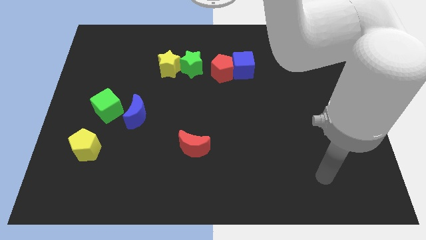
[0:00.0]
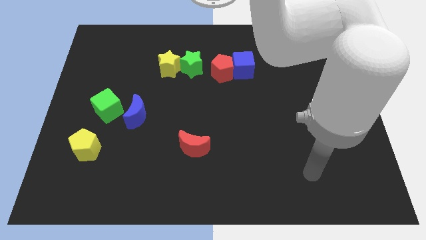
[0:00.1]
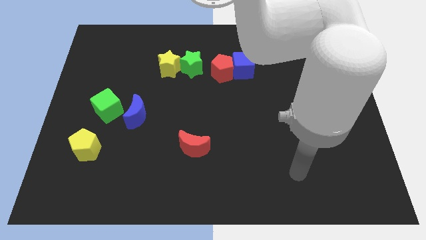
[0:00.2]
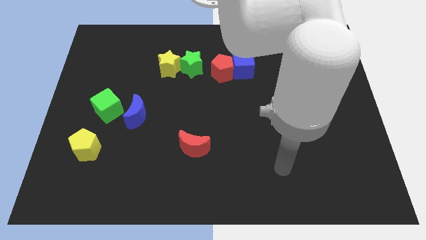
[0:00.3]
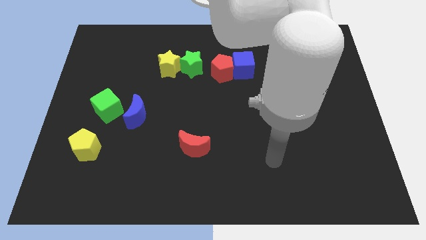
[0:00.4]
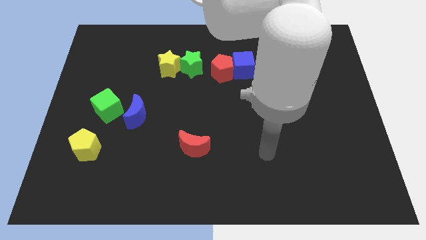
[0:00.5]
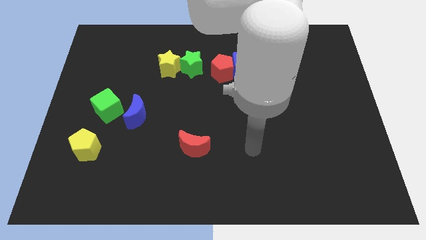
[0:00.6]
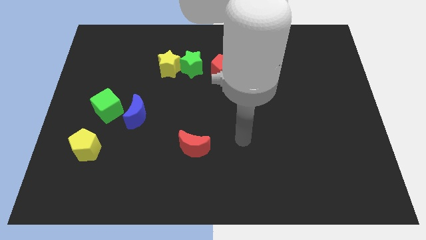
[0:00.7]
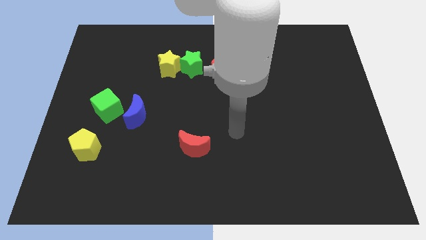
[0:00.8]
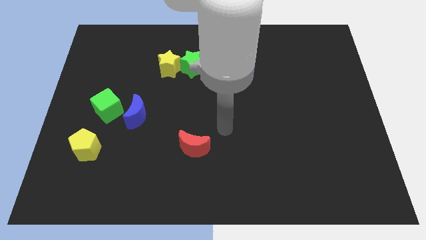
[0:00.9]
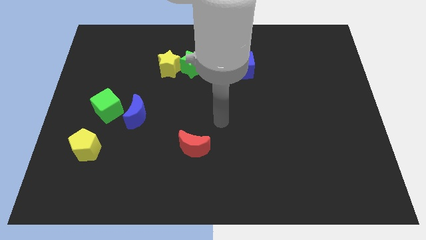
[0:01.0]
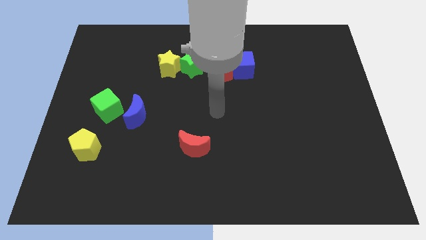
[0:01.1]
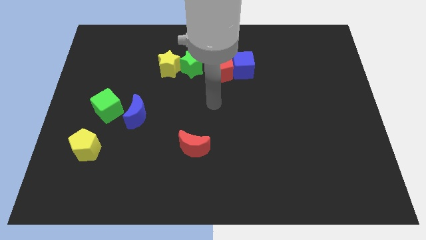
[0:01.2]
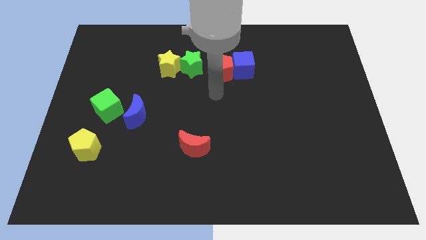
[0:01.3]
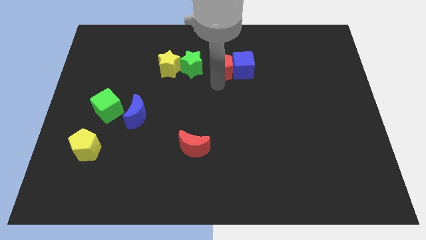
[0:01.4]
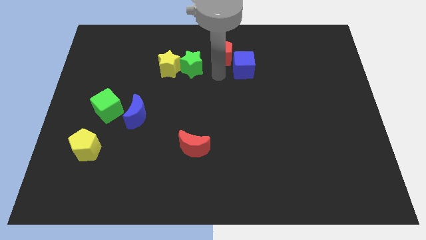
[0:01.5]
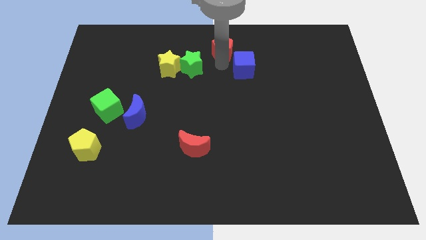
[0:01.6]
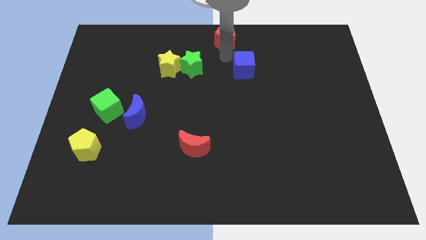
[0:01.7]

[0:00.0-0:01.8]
move the blue cube away from the red pentagon

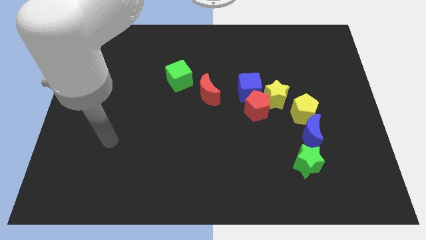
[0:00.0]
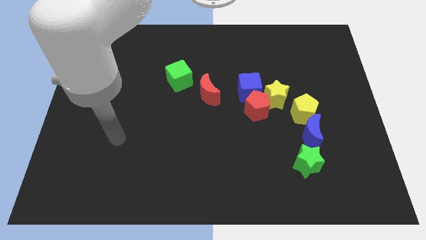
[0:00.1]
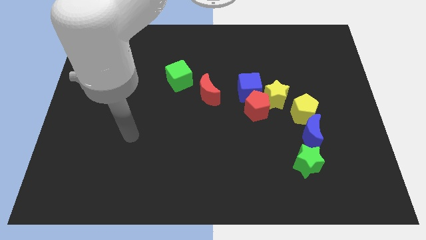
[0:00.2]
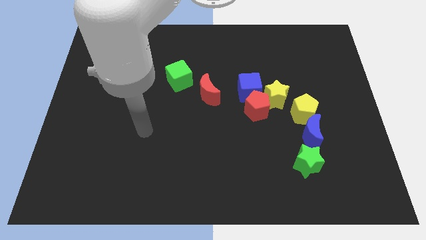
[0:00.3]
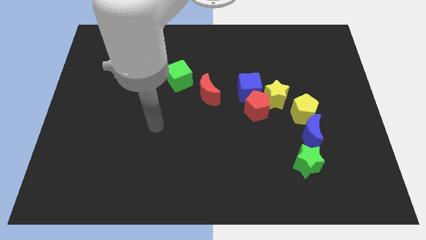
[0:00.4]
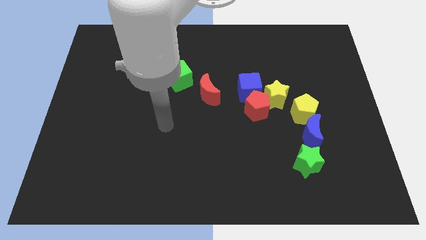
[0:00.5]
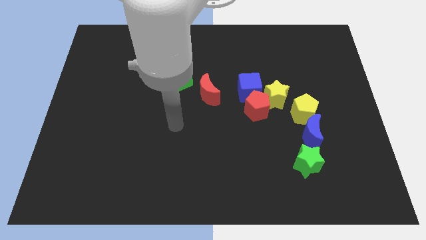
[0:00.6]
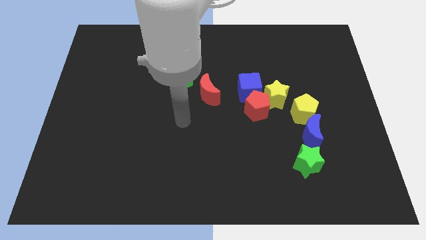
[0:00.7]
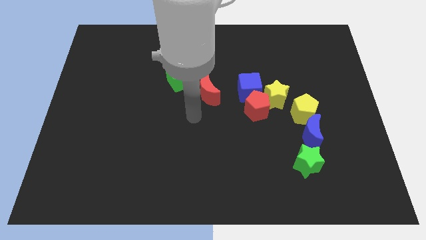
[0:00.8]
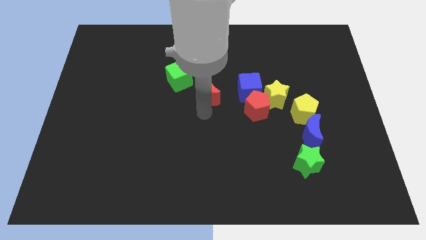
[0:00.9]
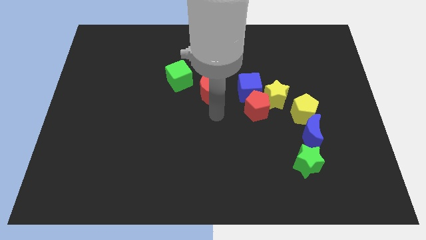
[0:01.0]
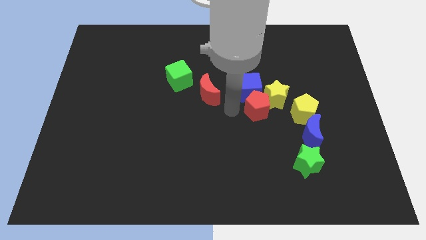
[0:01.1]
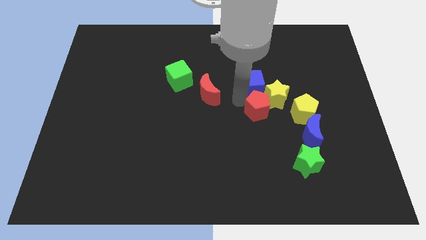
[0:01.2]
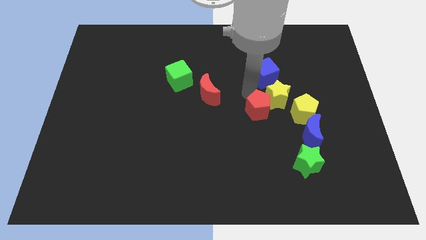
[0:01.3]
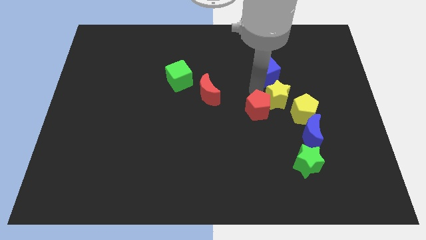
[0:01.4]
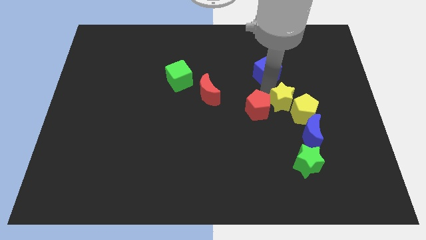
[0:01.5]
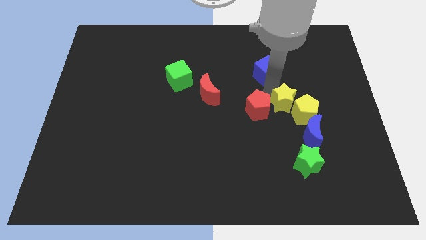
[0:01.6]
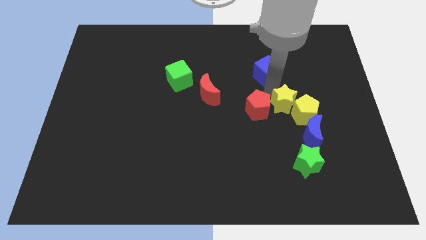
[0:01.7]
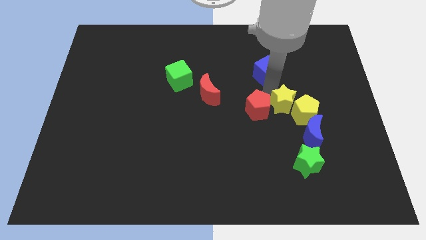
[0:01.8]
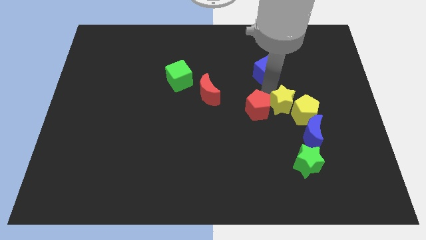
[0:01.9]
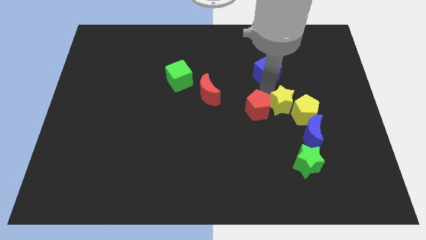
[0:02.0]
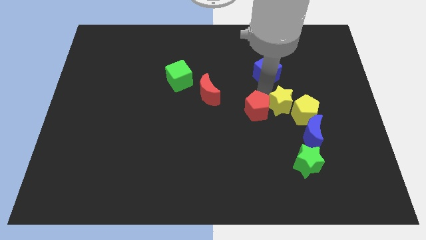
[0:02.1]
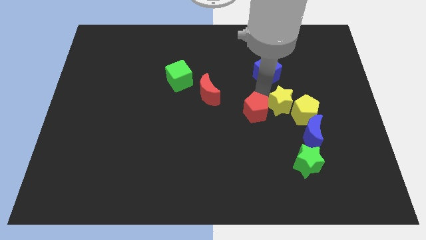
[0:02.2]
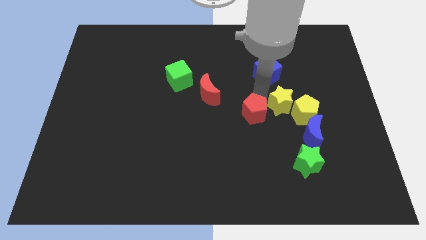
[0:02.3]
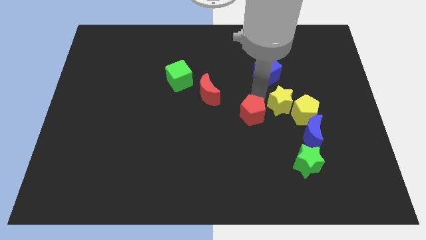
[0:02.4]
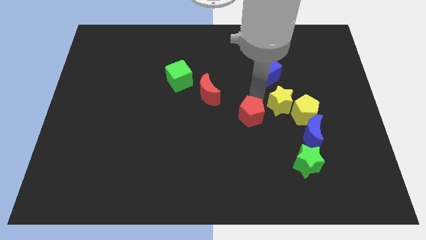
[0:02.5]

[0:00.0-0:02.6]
pull the red pentagon apart from the yellow star and blue cube

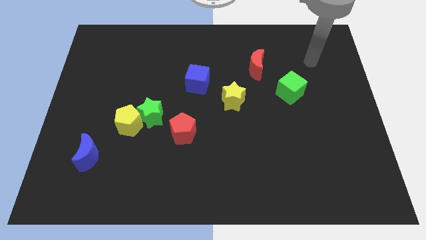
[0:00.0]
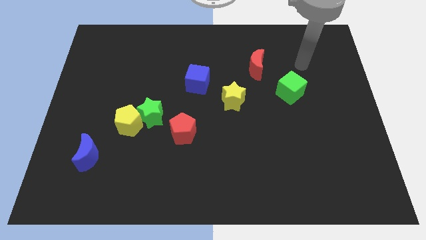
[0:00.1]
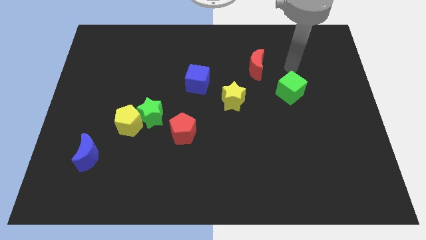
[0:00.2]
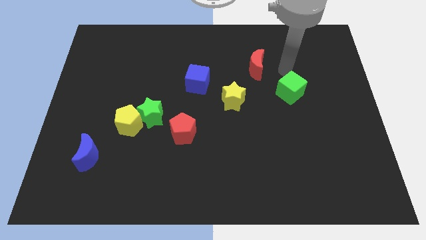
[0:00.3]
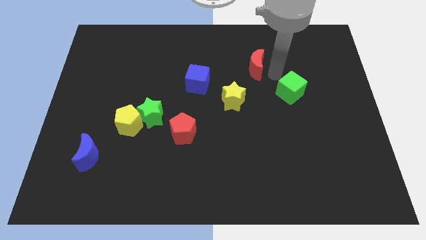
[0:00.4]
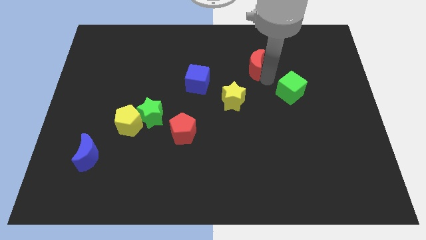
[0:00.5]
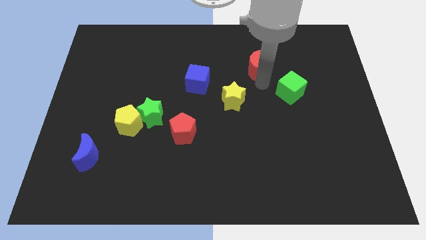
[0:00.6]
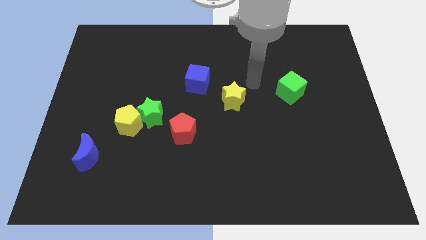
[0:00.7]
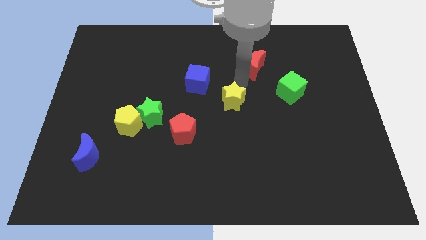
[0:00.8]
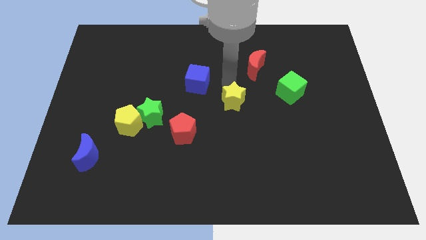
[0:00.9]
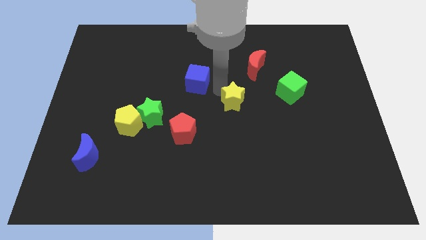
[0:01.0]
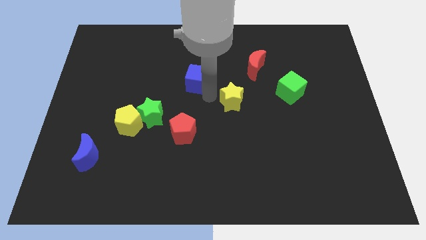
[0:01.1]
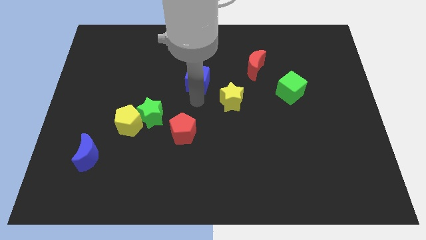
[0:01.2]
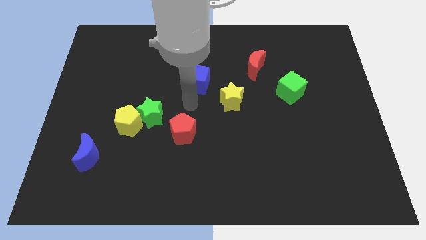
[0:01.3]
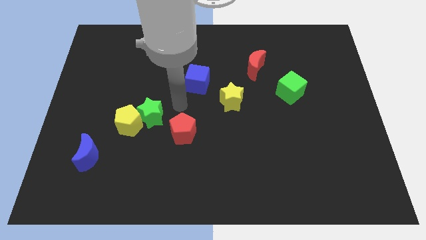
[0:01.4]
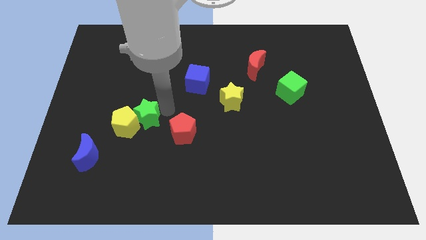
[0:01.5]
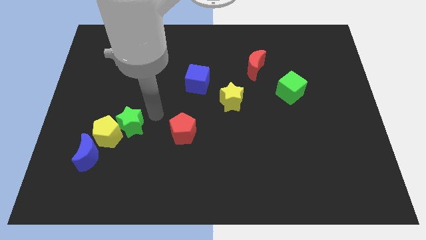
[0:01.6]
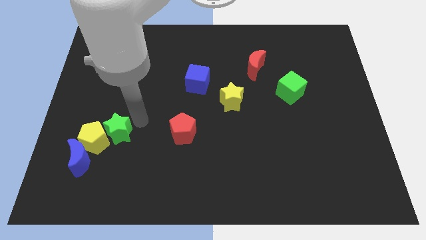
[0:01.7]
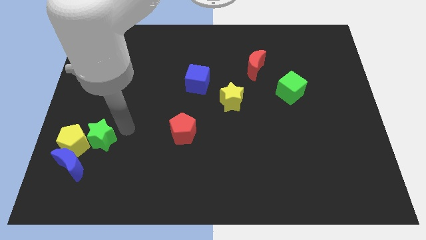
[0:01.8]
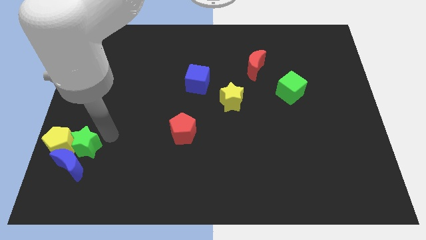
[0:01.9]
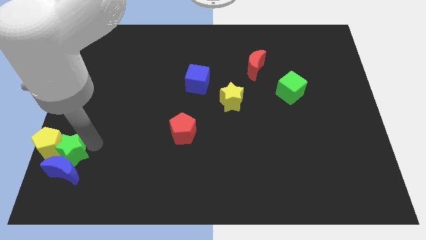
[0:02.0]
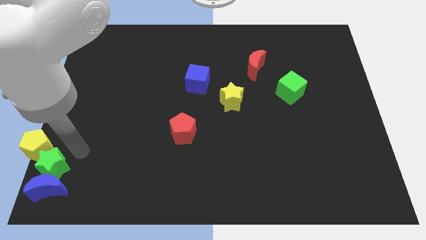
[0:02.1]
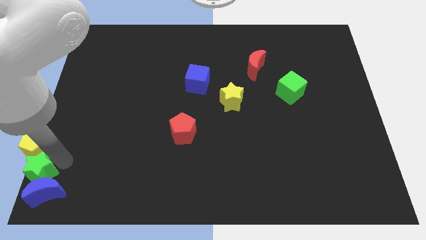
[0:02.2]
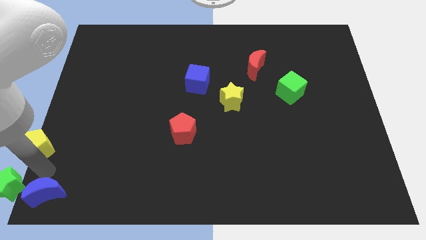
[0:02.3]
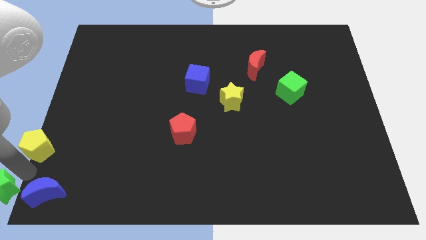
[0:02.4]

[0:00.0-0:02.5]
move the yellow pentagon away from the green star

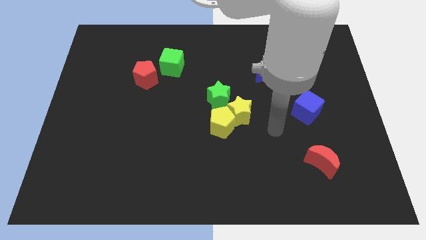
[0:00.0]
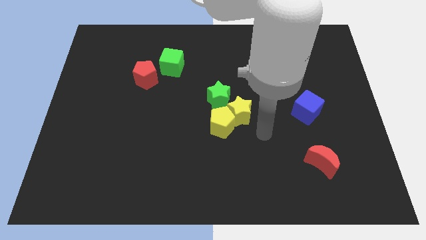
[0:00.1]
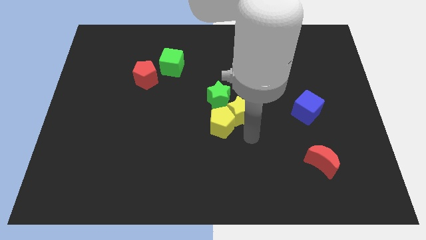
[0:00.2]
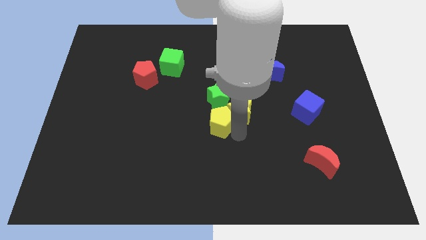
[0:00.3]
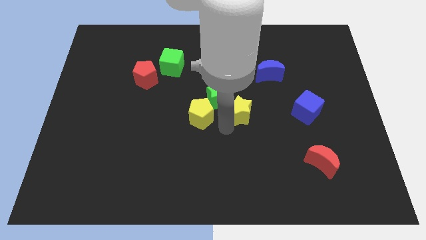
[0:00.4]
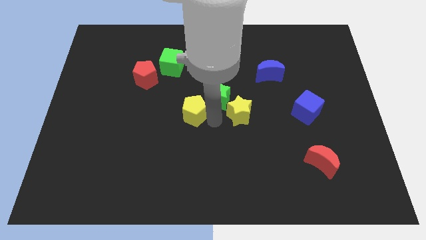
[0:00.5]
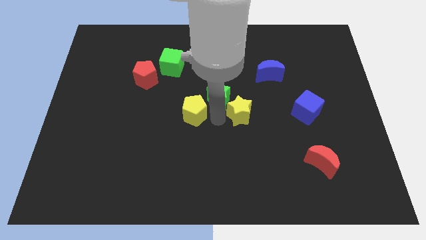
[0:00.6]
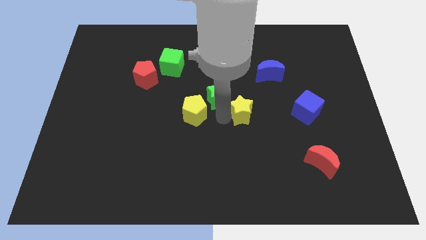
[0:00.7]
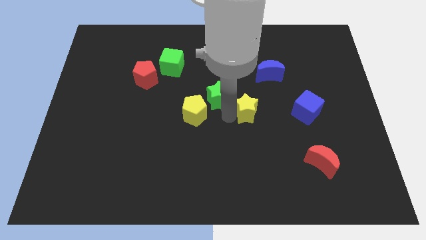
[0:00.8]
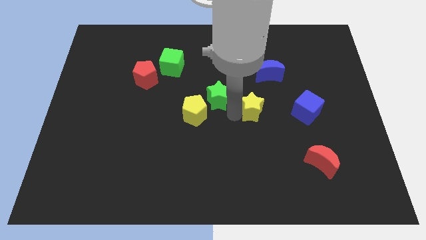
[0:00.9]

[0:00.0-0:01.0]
move the yellow star away from the yellow pentagon and green star

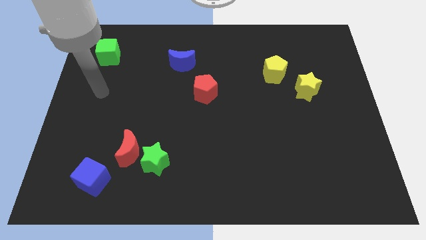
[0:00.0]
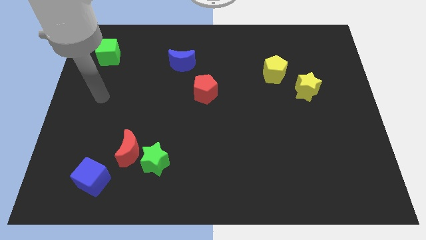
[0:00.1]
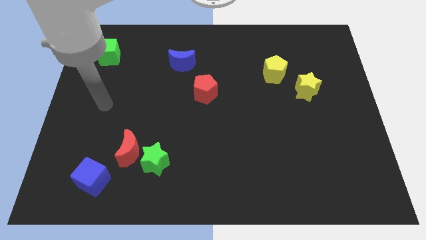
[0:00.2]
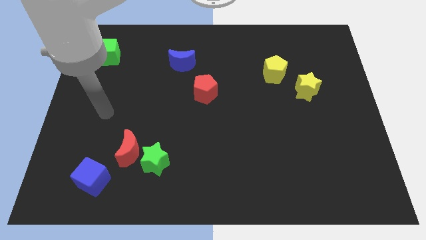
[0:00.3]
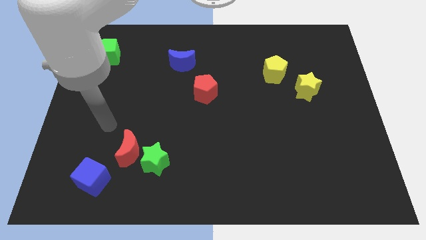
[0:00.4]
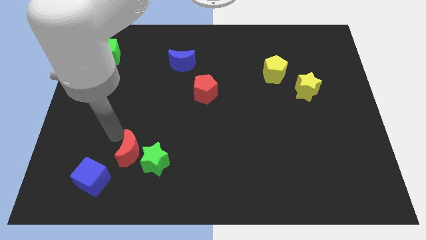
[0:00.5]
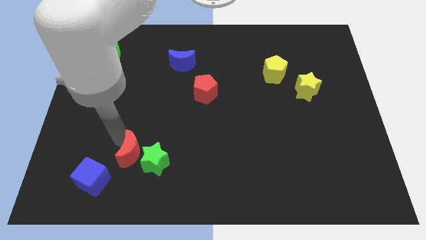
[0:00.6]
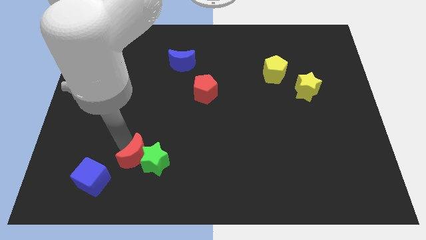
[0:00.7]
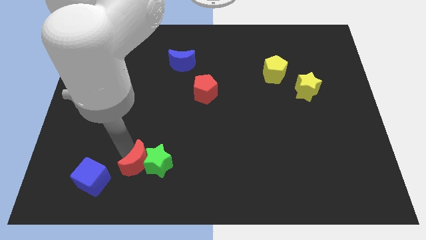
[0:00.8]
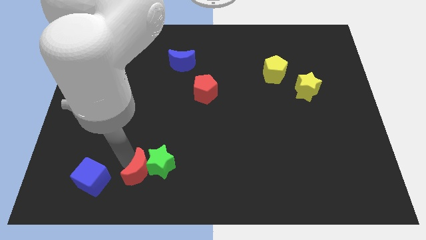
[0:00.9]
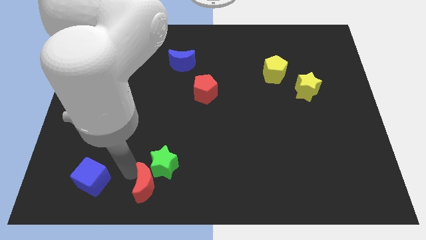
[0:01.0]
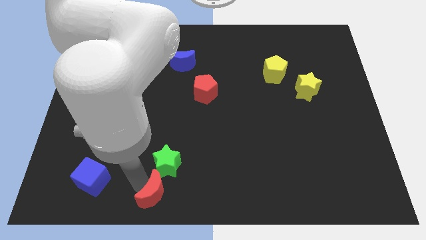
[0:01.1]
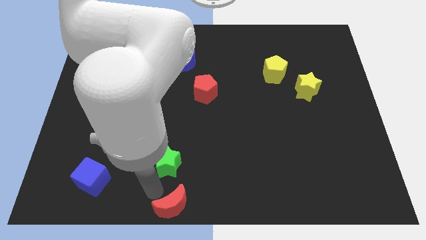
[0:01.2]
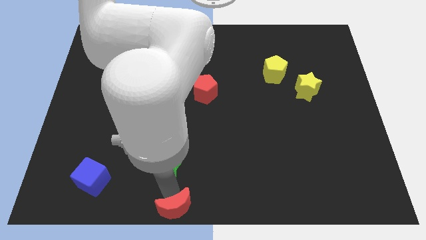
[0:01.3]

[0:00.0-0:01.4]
separate the green star from the red moon
